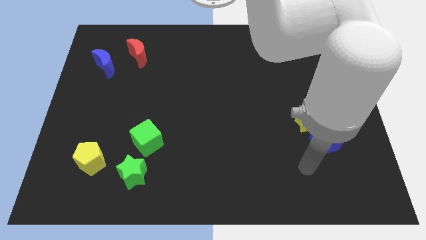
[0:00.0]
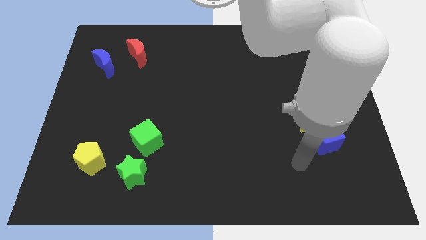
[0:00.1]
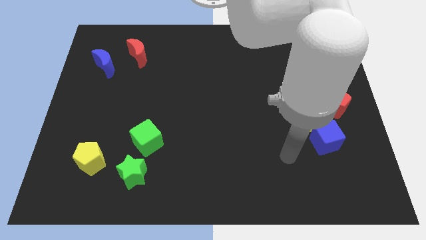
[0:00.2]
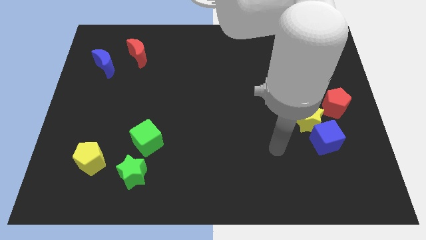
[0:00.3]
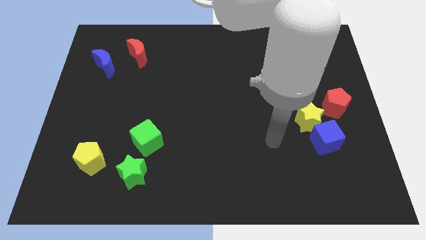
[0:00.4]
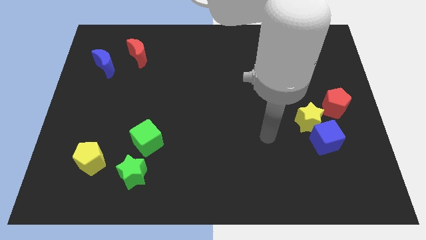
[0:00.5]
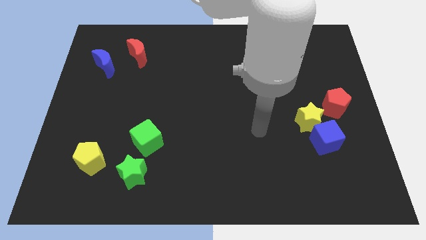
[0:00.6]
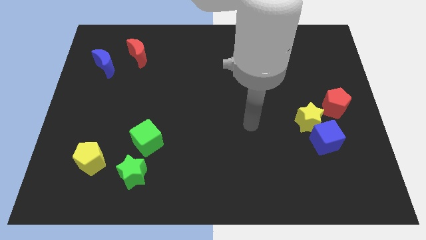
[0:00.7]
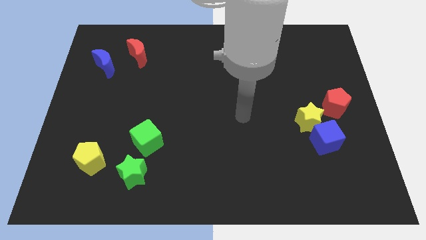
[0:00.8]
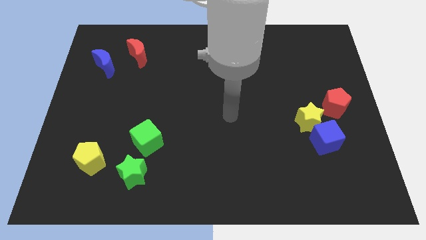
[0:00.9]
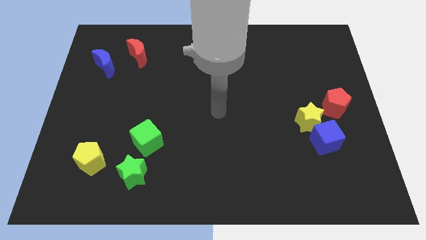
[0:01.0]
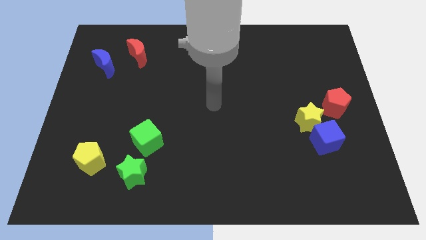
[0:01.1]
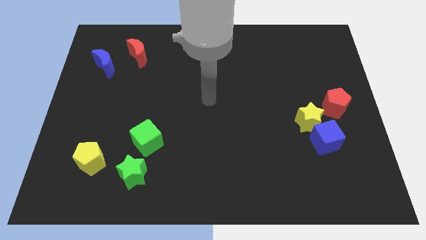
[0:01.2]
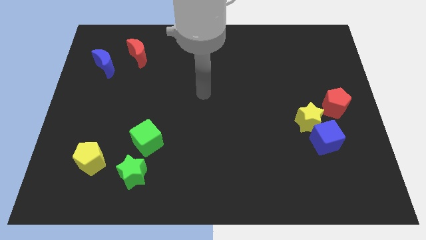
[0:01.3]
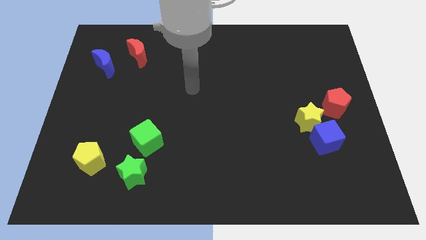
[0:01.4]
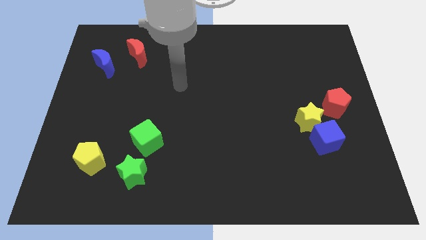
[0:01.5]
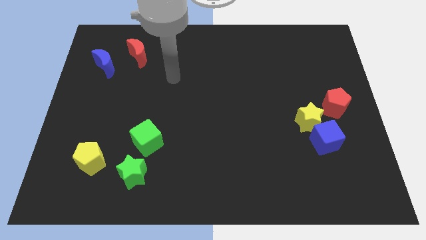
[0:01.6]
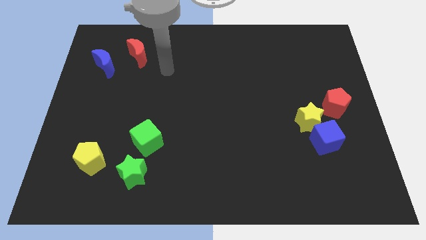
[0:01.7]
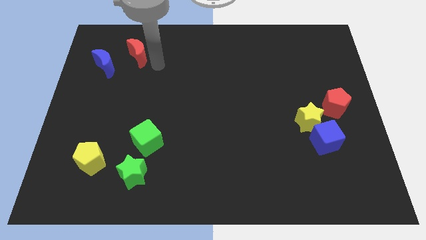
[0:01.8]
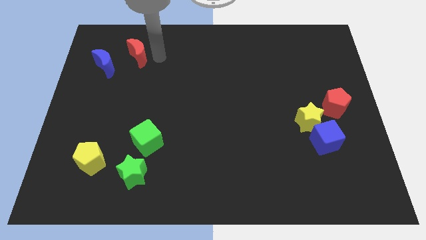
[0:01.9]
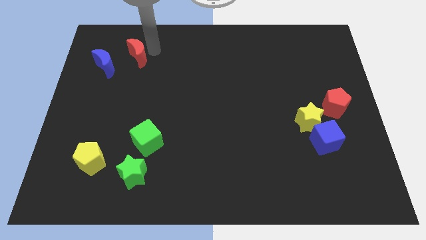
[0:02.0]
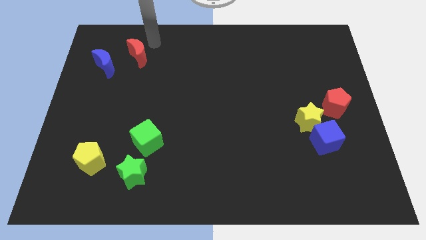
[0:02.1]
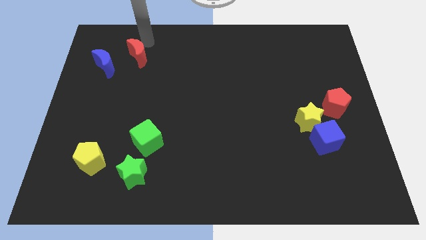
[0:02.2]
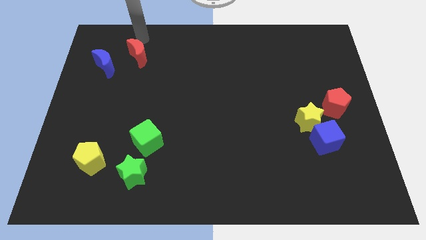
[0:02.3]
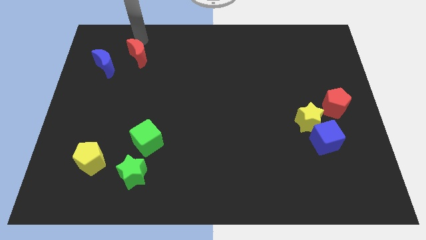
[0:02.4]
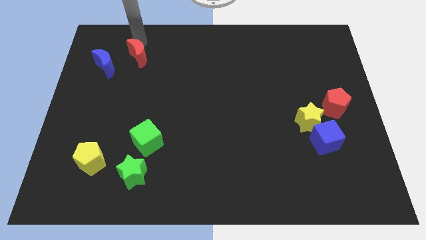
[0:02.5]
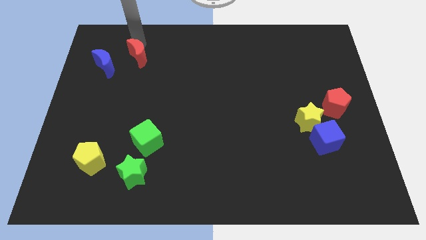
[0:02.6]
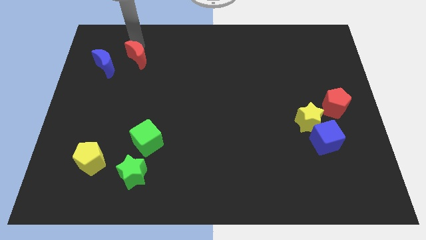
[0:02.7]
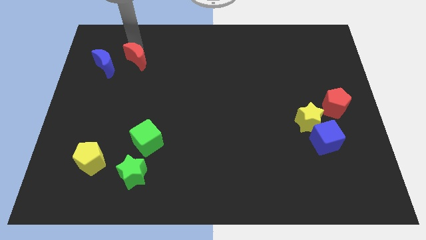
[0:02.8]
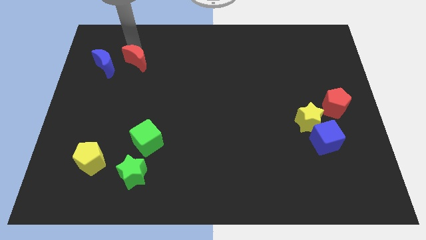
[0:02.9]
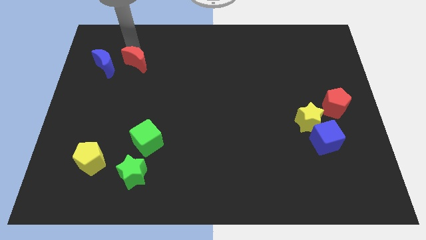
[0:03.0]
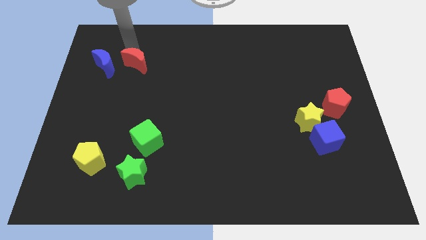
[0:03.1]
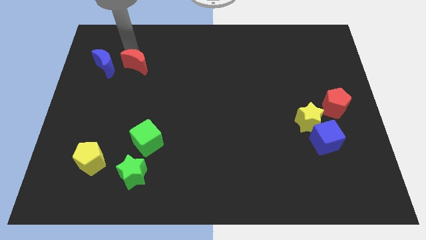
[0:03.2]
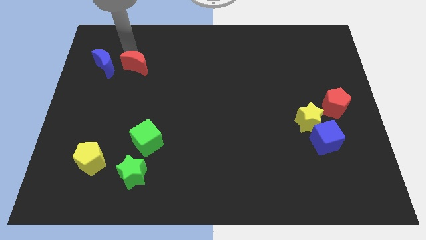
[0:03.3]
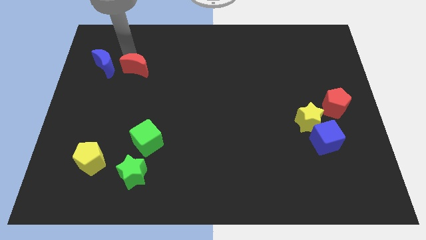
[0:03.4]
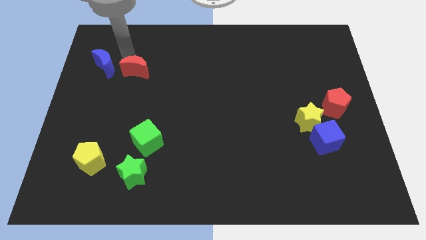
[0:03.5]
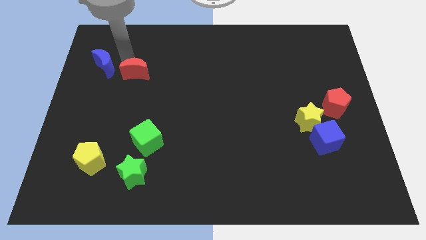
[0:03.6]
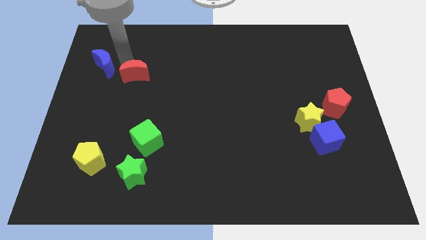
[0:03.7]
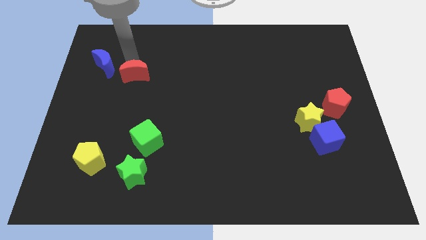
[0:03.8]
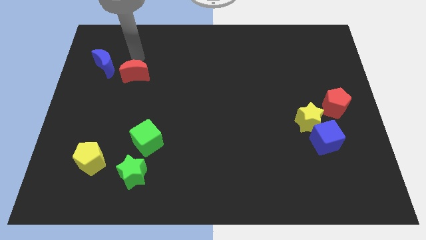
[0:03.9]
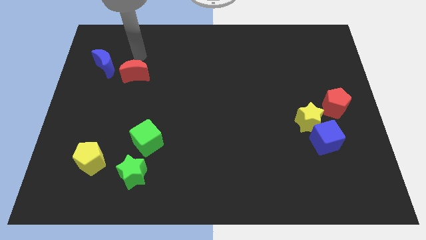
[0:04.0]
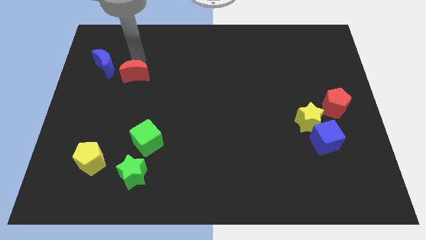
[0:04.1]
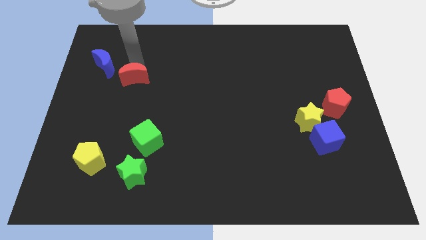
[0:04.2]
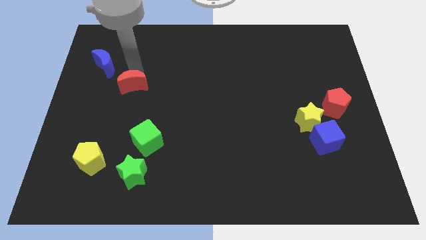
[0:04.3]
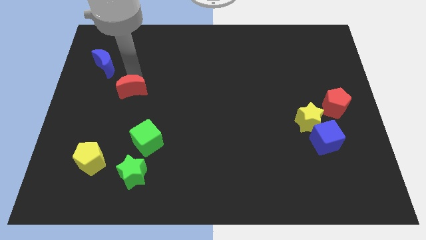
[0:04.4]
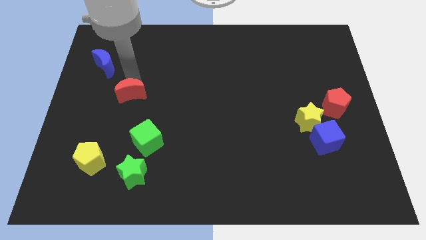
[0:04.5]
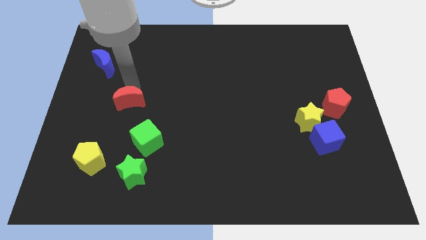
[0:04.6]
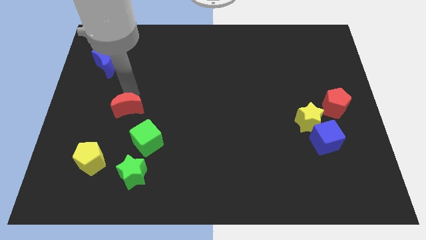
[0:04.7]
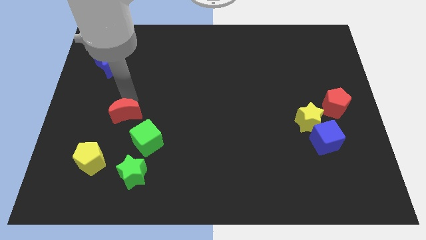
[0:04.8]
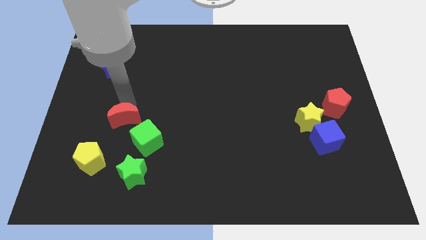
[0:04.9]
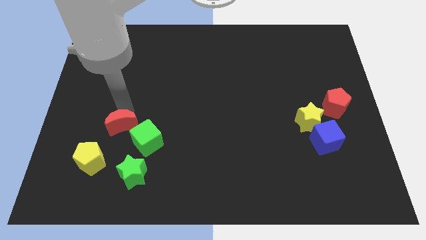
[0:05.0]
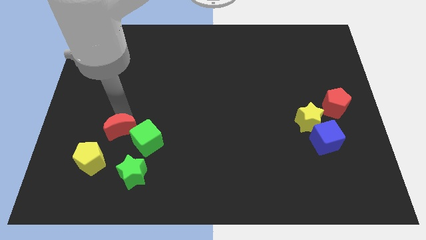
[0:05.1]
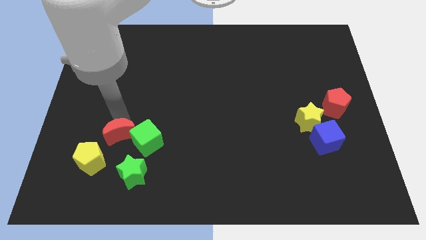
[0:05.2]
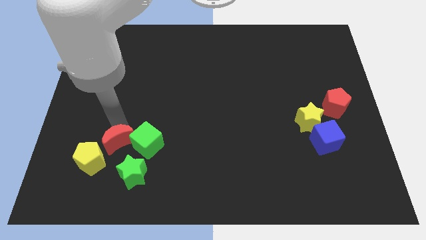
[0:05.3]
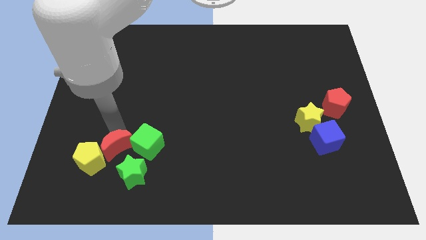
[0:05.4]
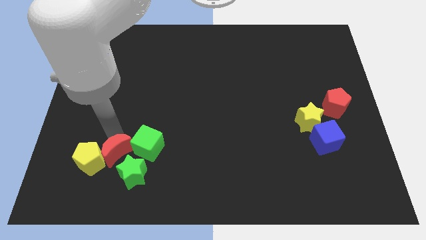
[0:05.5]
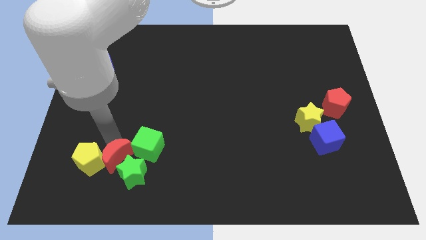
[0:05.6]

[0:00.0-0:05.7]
push the red moon towards the green star

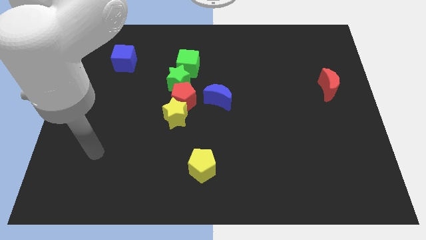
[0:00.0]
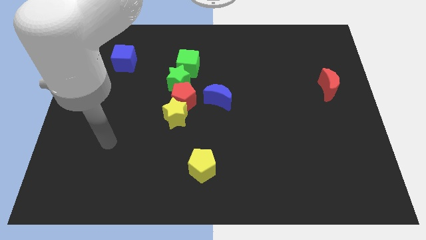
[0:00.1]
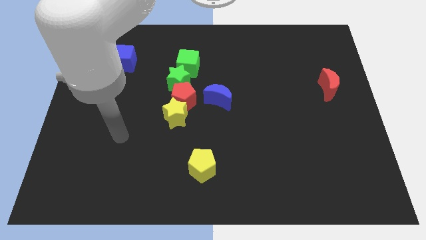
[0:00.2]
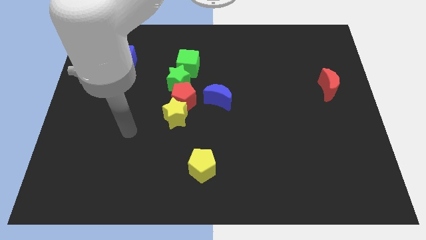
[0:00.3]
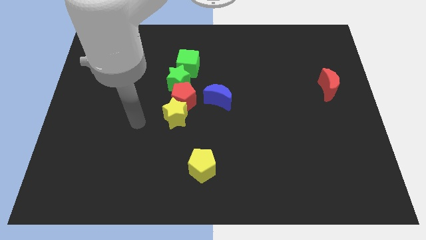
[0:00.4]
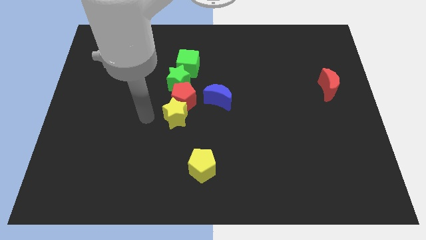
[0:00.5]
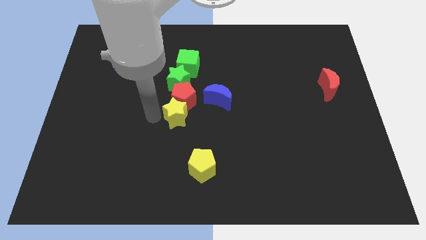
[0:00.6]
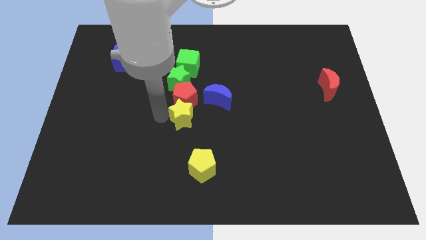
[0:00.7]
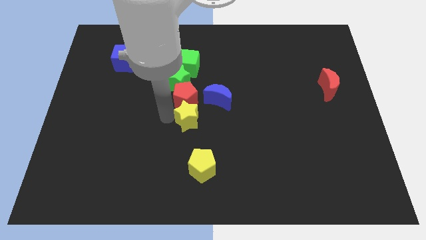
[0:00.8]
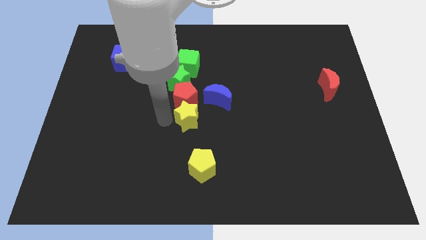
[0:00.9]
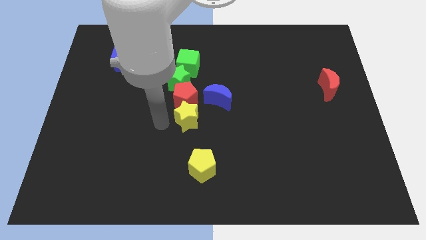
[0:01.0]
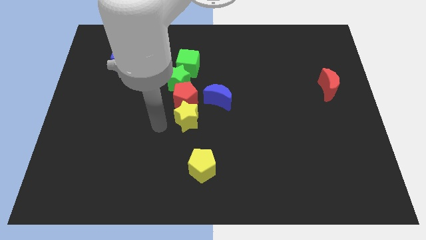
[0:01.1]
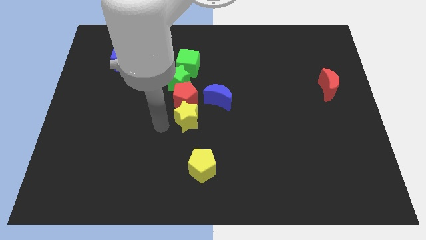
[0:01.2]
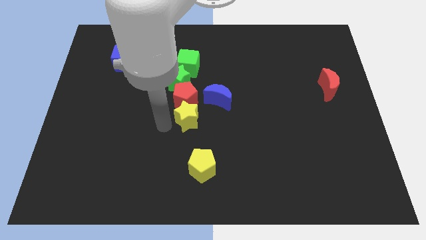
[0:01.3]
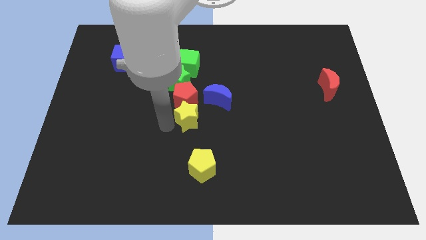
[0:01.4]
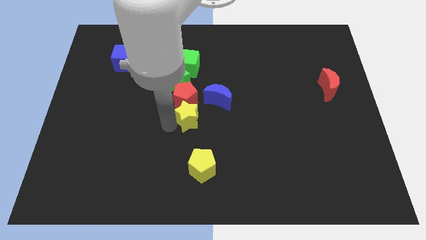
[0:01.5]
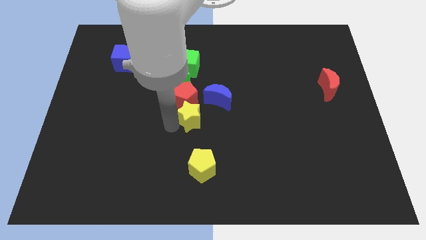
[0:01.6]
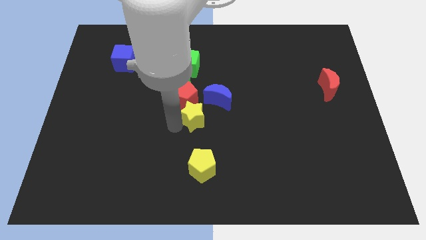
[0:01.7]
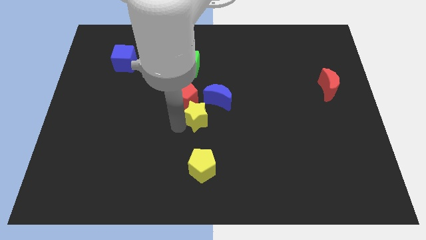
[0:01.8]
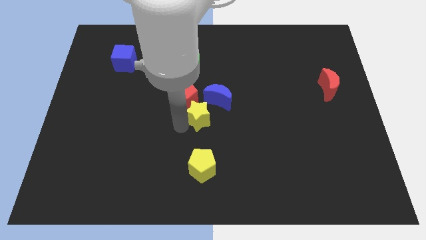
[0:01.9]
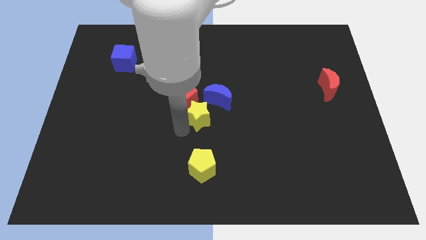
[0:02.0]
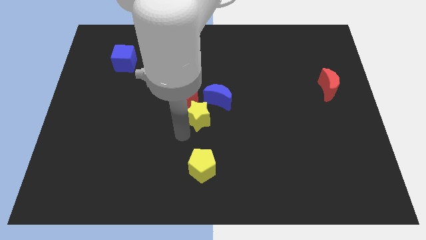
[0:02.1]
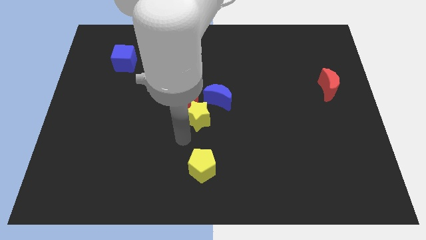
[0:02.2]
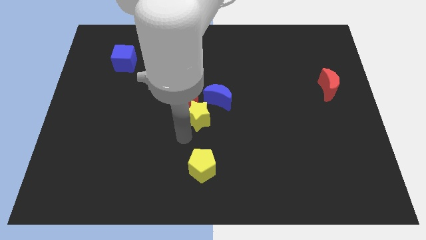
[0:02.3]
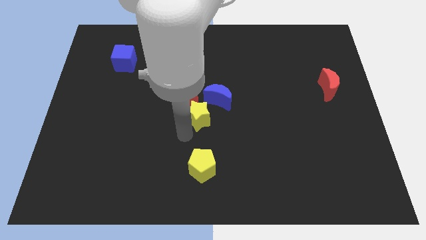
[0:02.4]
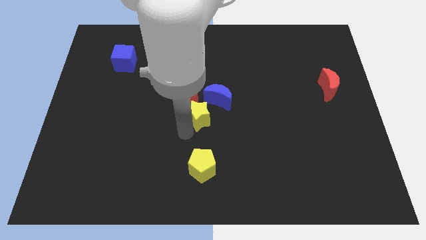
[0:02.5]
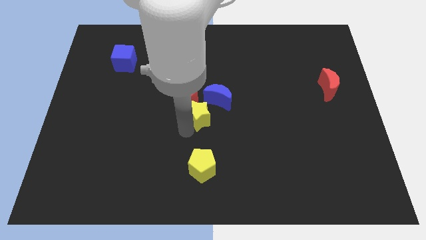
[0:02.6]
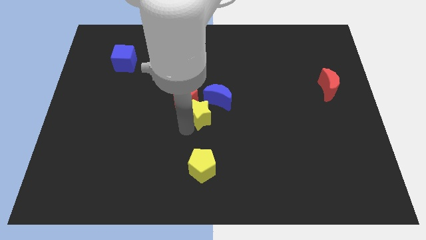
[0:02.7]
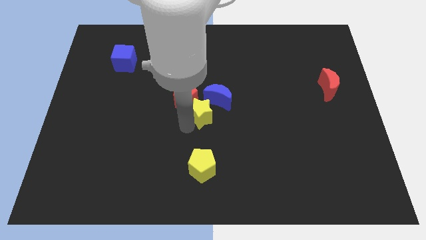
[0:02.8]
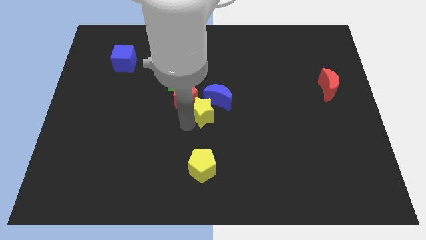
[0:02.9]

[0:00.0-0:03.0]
move the yellow star towards the blue moon
